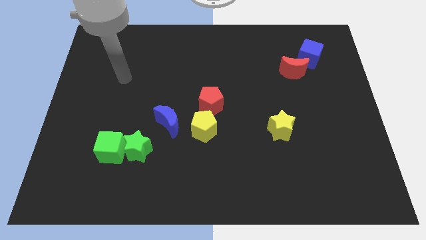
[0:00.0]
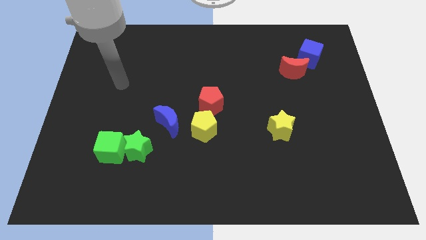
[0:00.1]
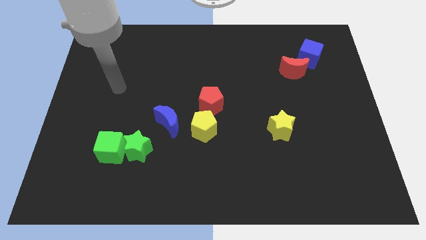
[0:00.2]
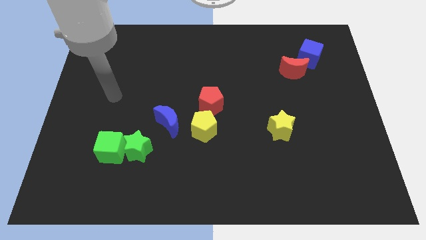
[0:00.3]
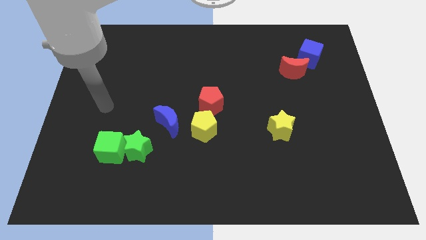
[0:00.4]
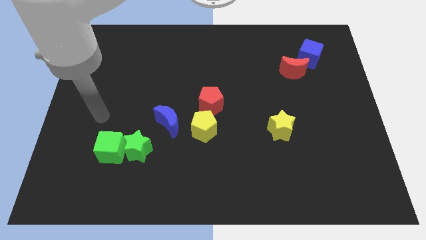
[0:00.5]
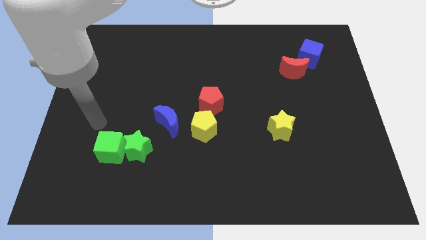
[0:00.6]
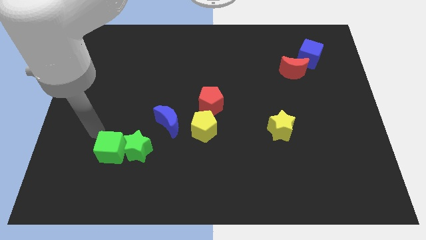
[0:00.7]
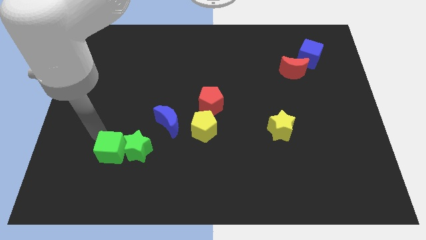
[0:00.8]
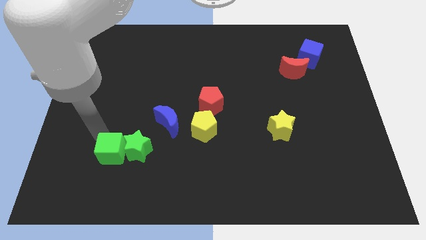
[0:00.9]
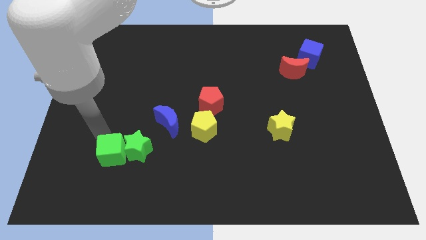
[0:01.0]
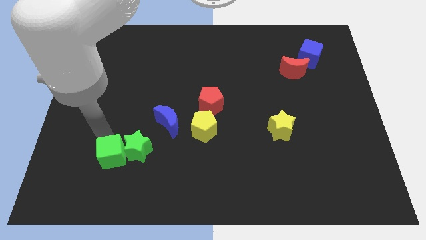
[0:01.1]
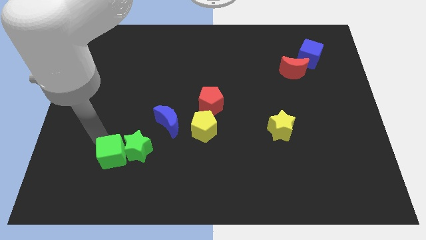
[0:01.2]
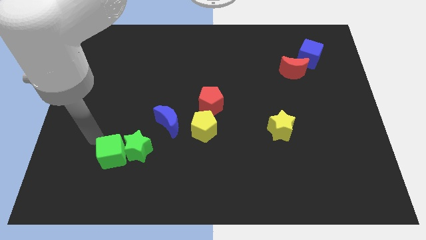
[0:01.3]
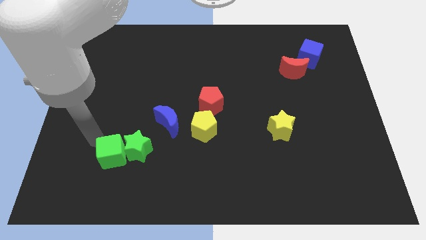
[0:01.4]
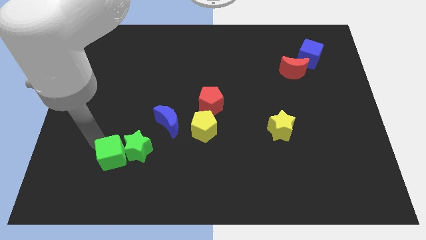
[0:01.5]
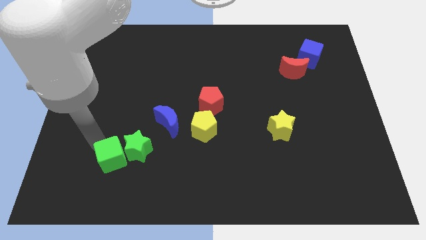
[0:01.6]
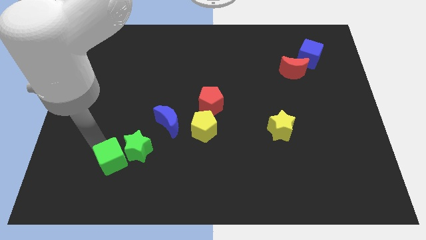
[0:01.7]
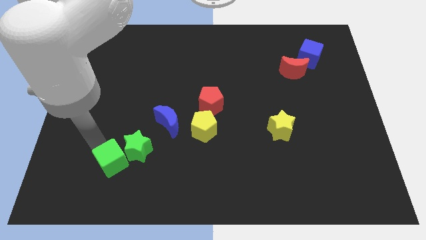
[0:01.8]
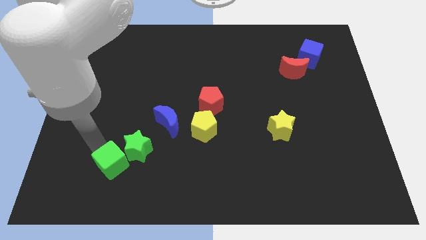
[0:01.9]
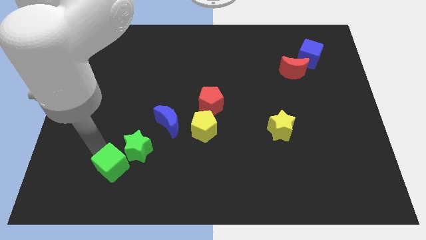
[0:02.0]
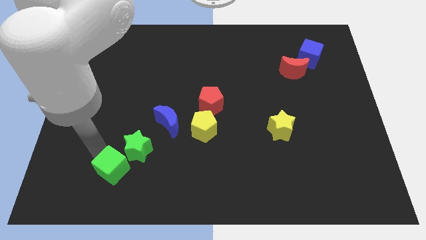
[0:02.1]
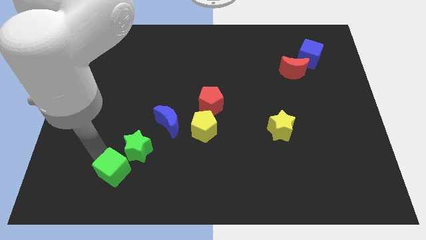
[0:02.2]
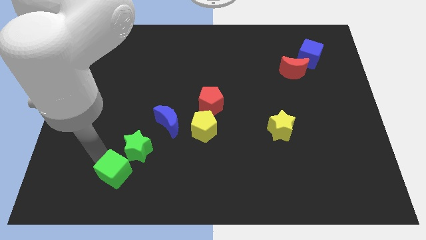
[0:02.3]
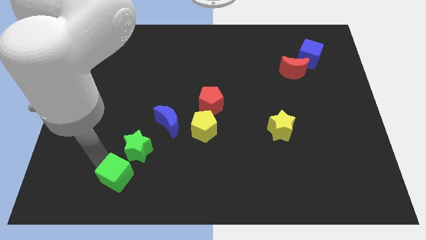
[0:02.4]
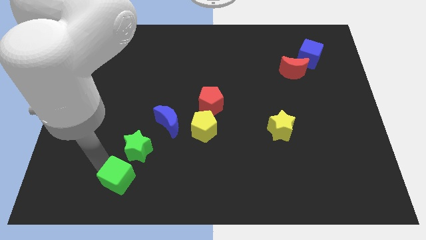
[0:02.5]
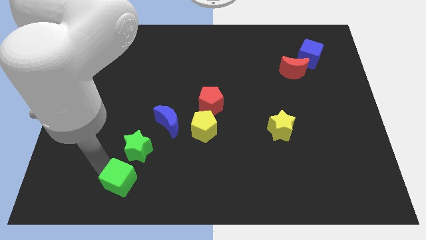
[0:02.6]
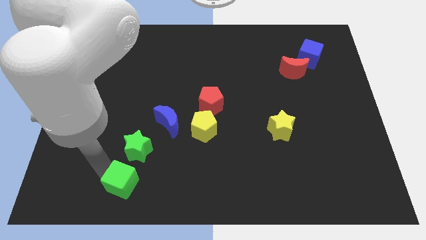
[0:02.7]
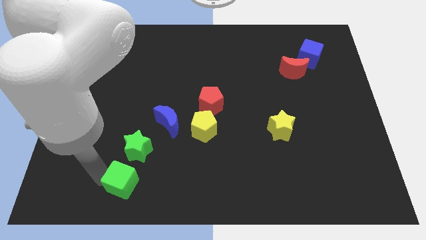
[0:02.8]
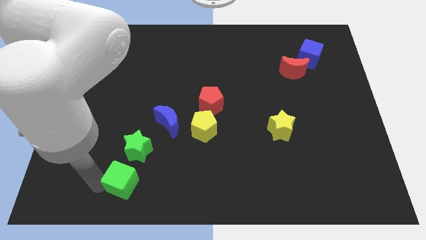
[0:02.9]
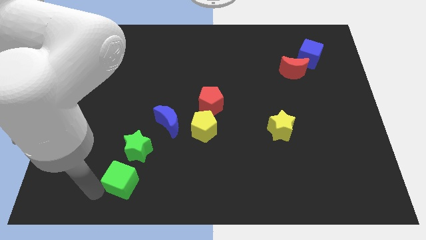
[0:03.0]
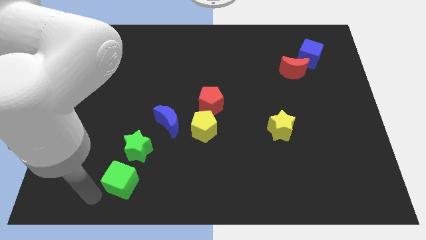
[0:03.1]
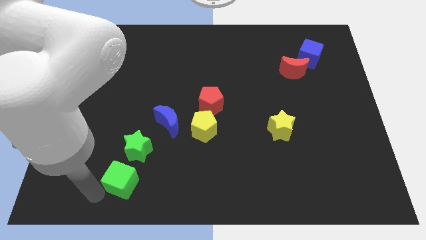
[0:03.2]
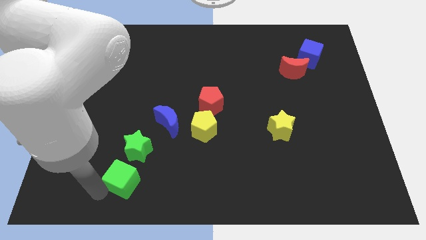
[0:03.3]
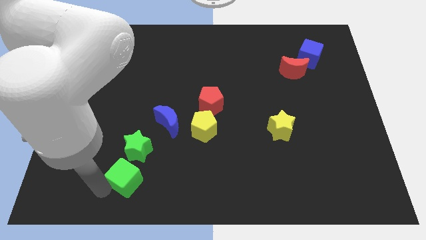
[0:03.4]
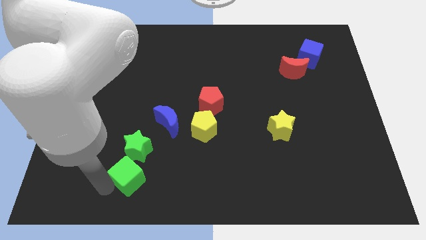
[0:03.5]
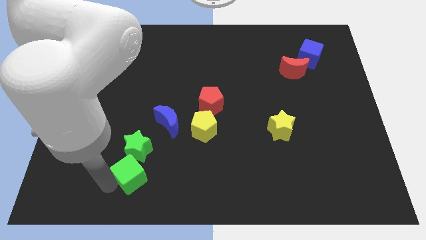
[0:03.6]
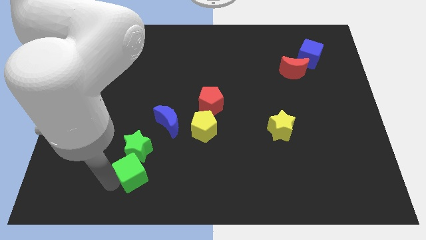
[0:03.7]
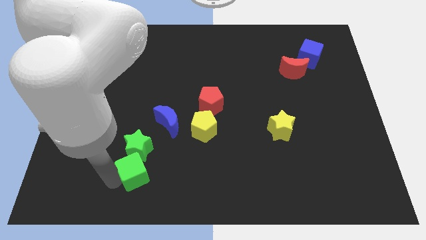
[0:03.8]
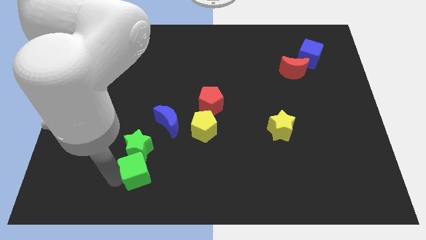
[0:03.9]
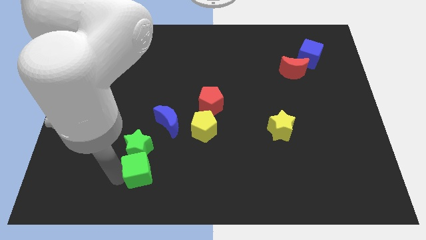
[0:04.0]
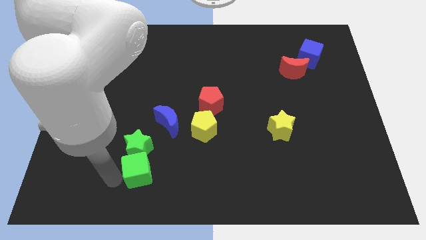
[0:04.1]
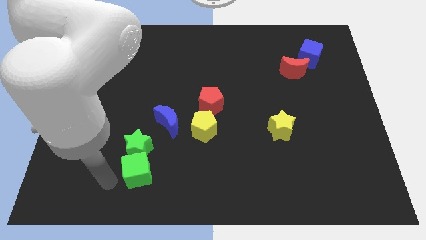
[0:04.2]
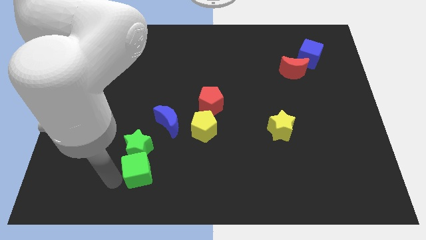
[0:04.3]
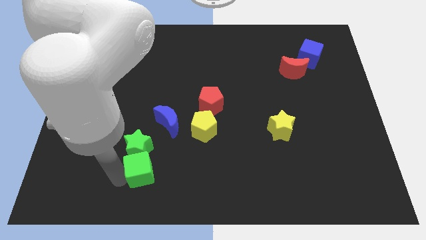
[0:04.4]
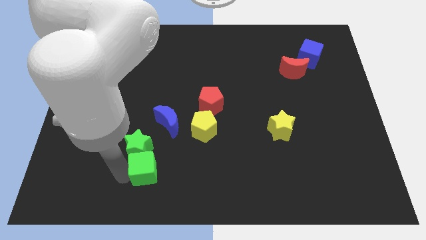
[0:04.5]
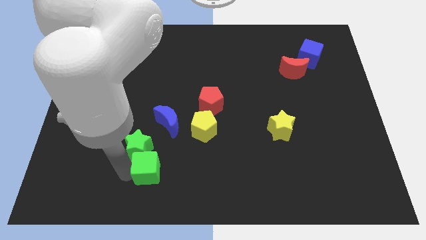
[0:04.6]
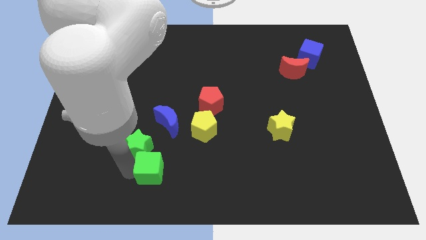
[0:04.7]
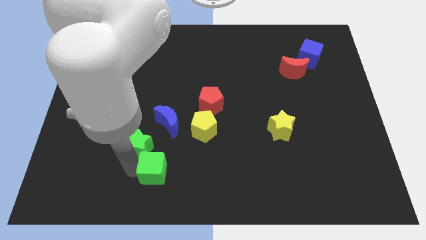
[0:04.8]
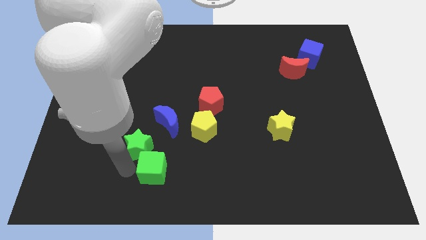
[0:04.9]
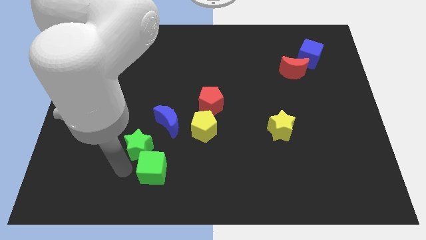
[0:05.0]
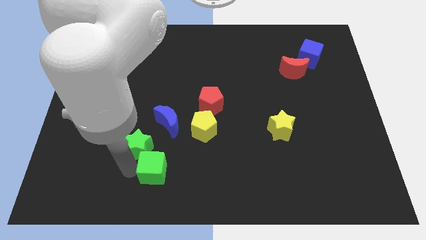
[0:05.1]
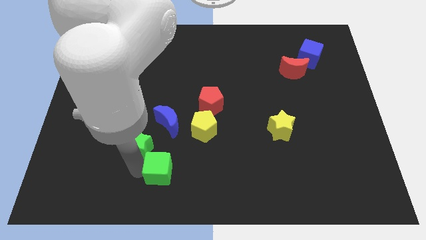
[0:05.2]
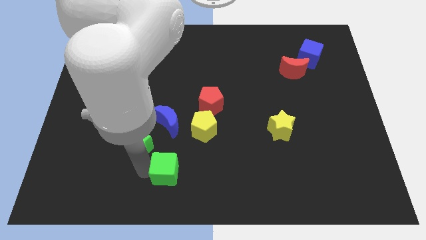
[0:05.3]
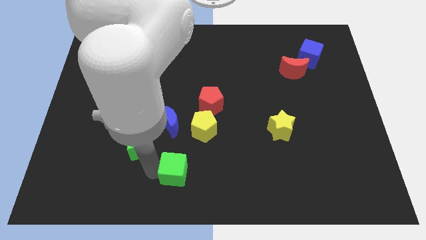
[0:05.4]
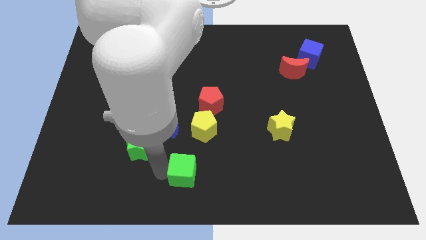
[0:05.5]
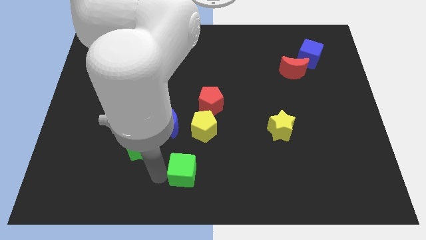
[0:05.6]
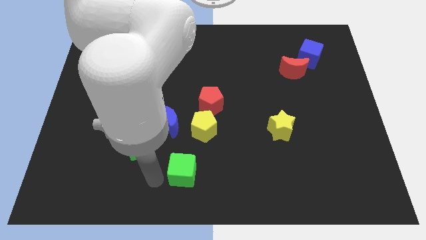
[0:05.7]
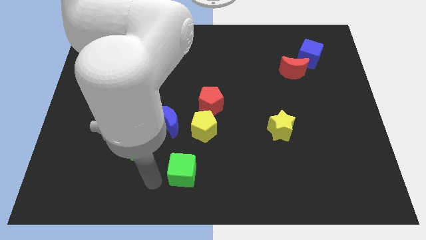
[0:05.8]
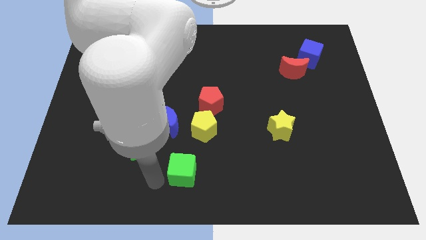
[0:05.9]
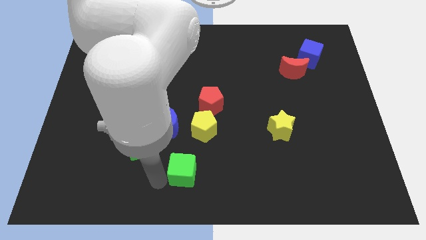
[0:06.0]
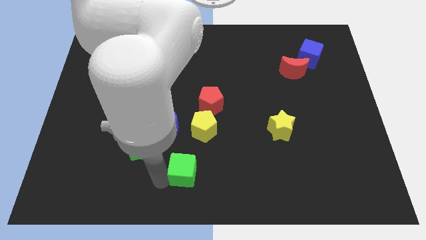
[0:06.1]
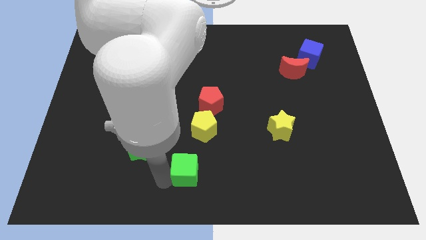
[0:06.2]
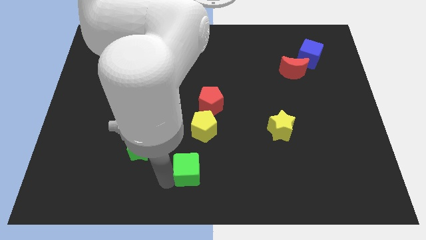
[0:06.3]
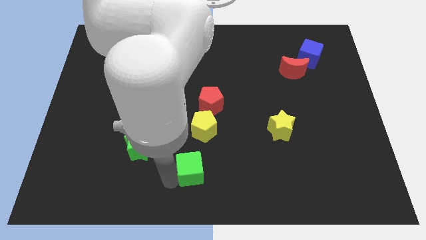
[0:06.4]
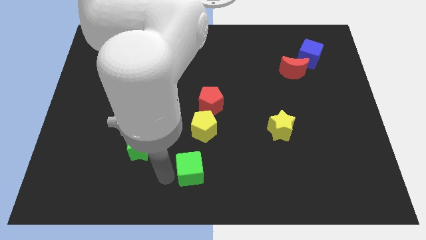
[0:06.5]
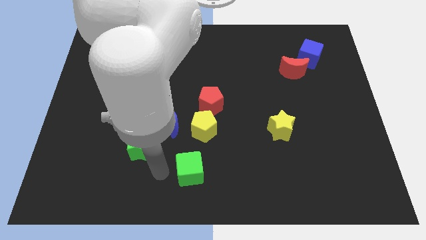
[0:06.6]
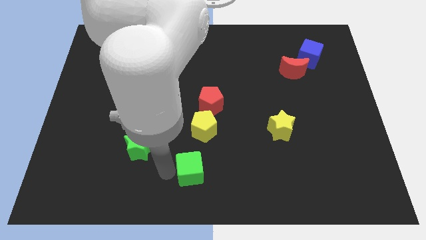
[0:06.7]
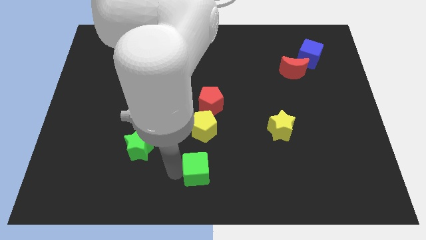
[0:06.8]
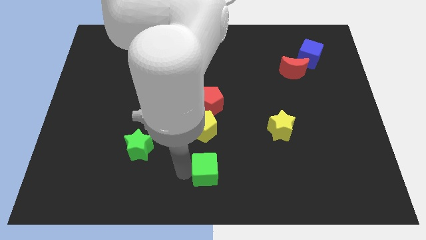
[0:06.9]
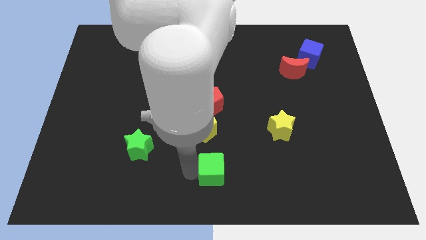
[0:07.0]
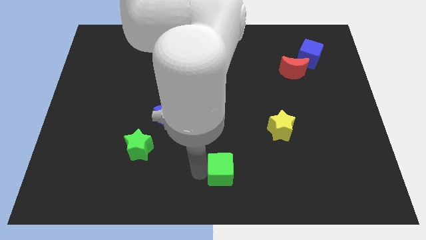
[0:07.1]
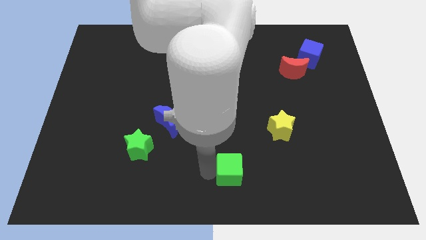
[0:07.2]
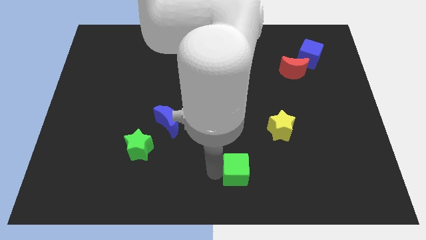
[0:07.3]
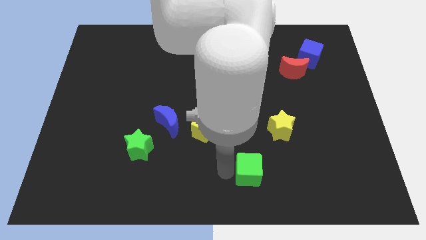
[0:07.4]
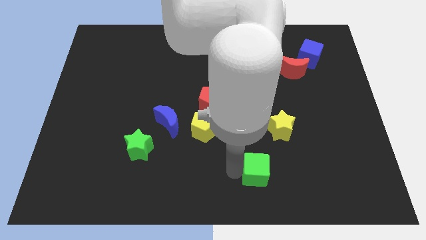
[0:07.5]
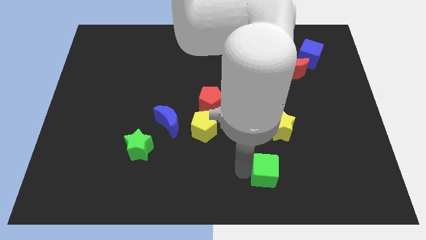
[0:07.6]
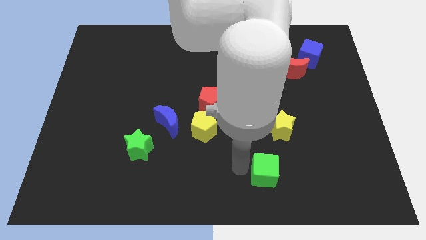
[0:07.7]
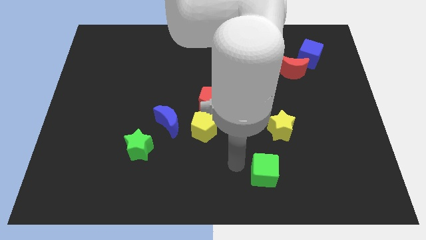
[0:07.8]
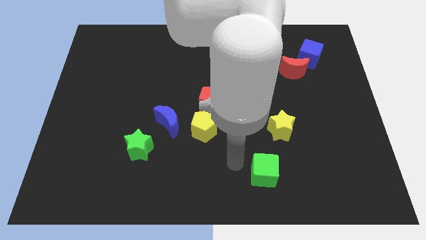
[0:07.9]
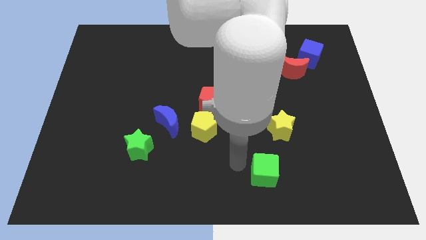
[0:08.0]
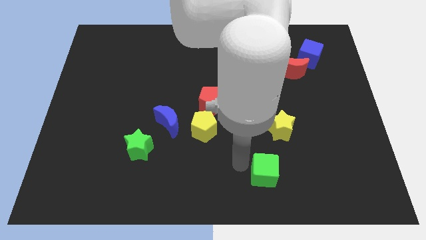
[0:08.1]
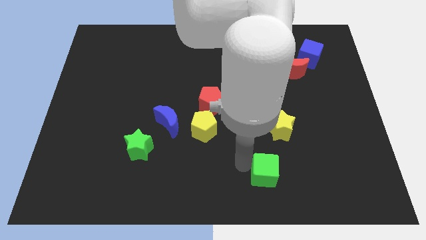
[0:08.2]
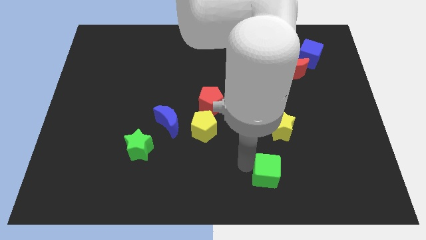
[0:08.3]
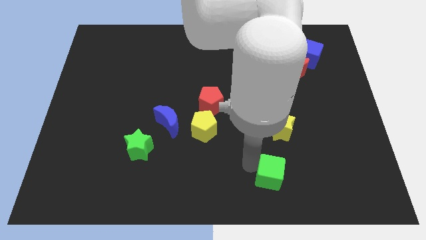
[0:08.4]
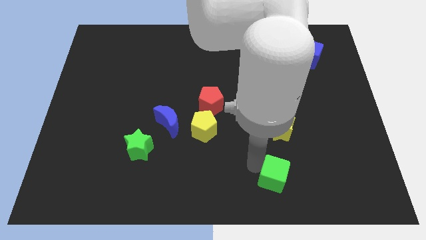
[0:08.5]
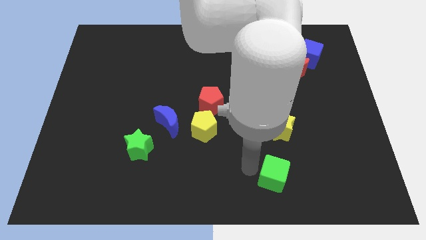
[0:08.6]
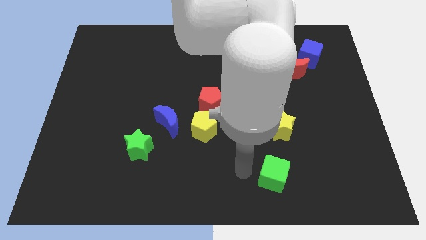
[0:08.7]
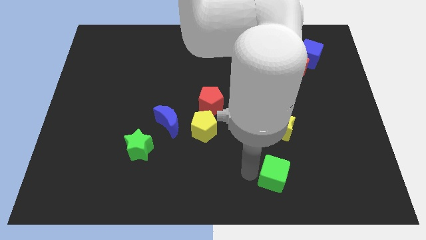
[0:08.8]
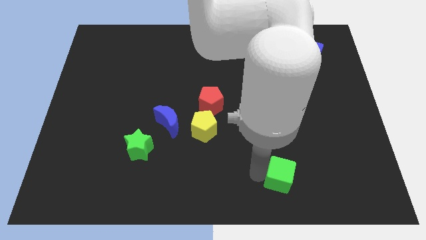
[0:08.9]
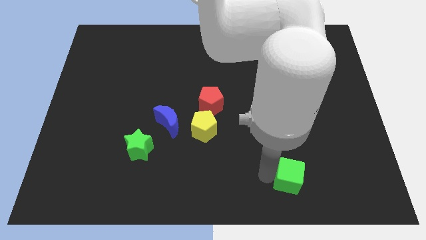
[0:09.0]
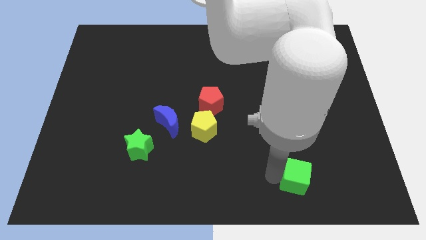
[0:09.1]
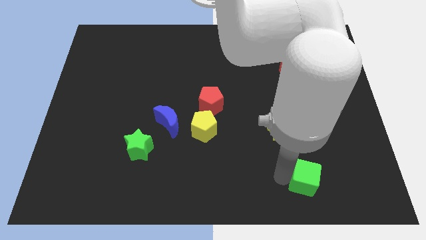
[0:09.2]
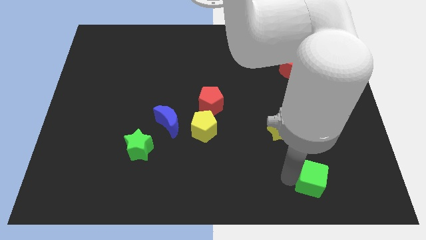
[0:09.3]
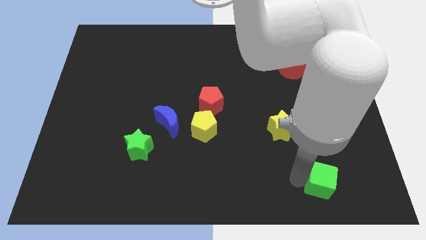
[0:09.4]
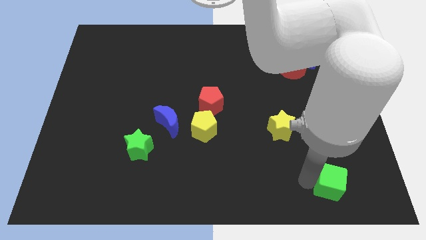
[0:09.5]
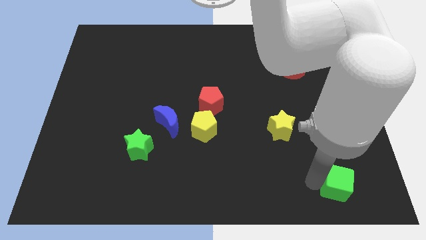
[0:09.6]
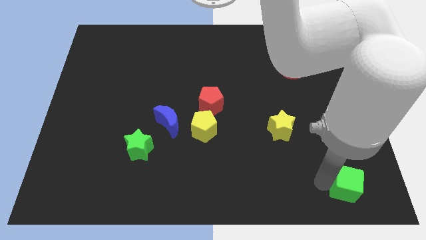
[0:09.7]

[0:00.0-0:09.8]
push the green cube to the lower right corner
